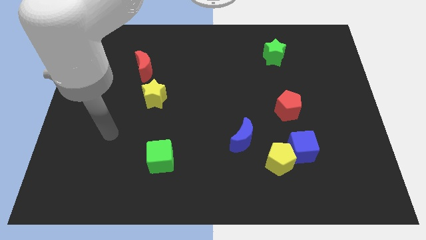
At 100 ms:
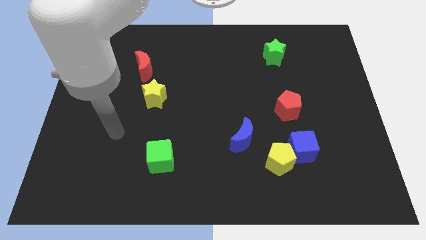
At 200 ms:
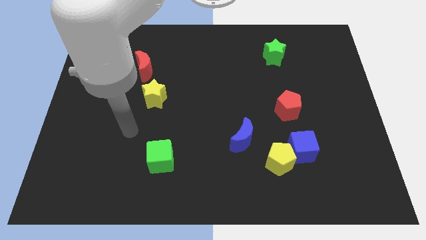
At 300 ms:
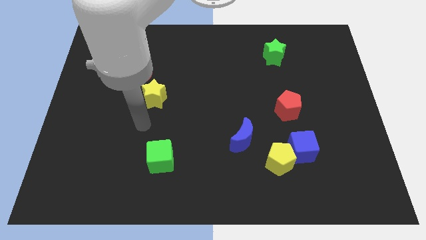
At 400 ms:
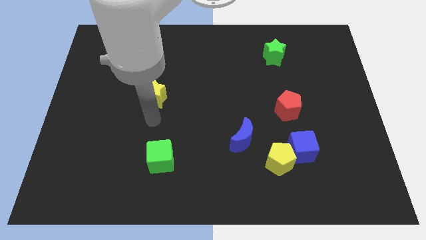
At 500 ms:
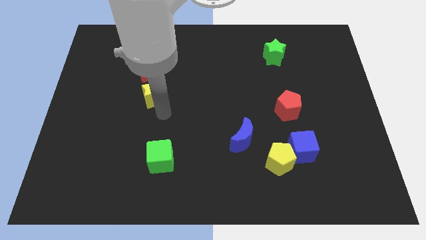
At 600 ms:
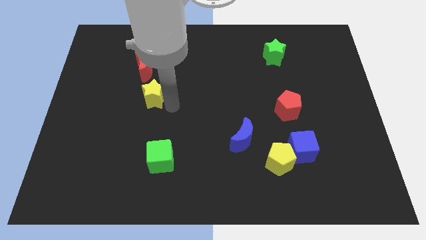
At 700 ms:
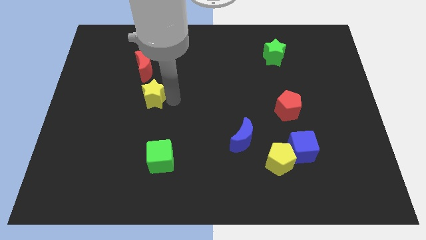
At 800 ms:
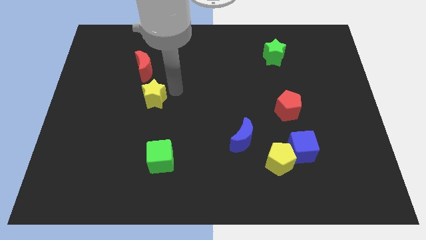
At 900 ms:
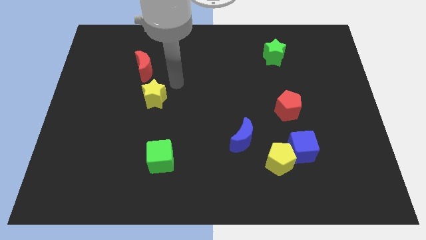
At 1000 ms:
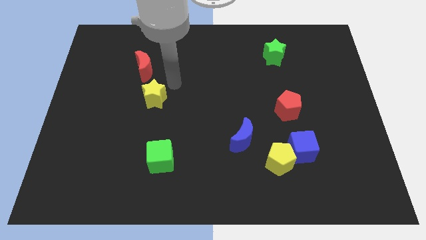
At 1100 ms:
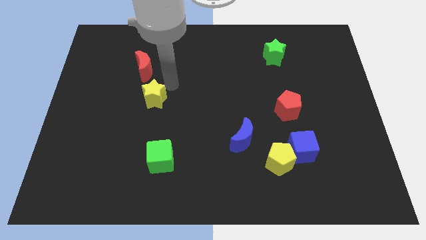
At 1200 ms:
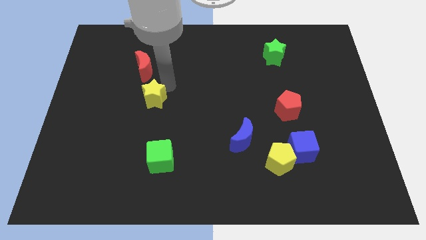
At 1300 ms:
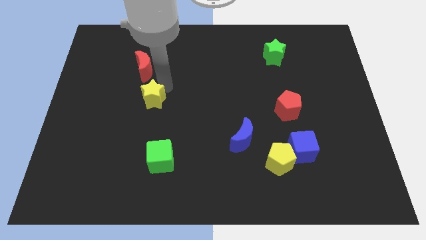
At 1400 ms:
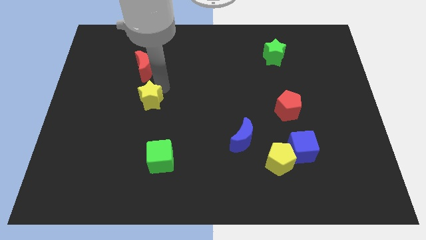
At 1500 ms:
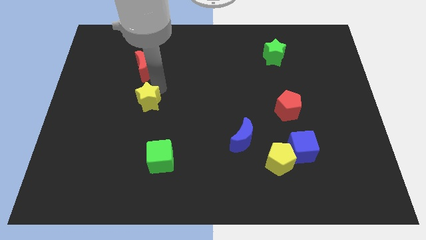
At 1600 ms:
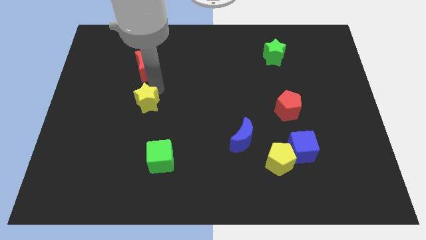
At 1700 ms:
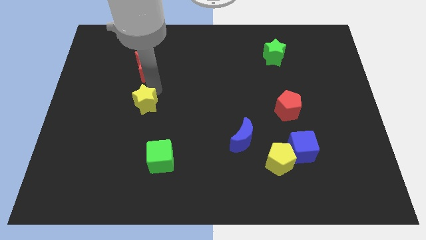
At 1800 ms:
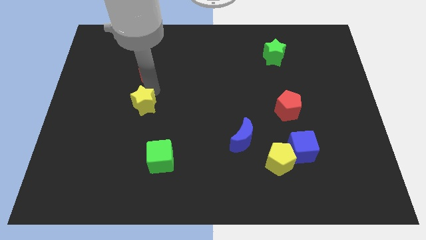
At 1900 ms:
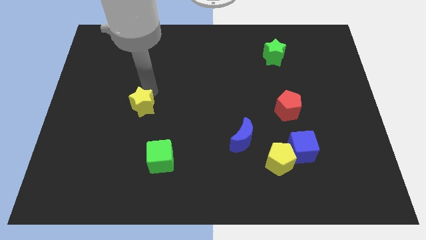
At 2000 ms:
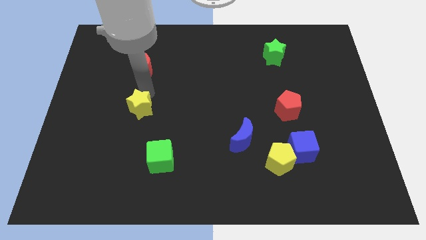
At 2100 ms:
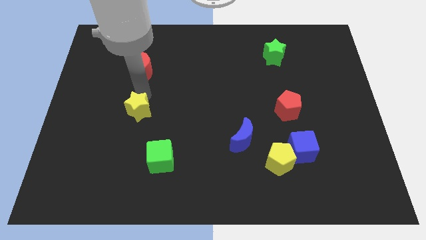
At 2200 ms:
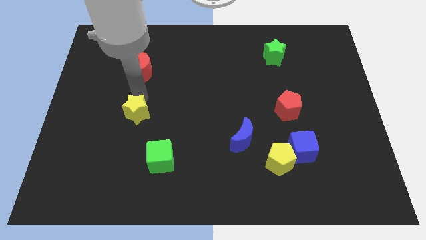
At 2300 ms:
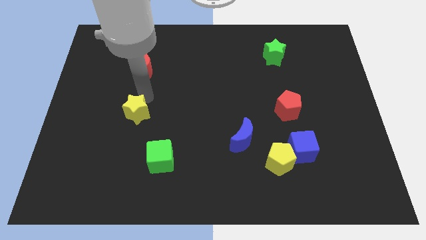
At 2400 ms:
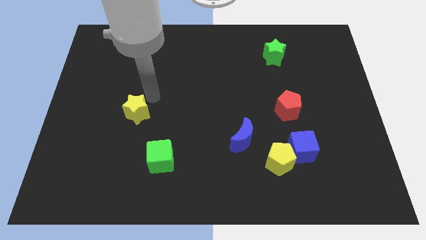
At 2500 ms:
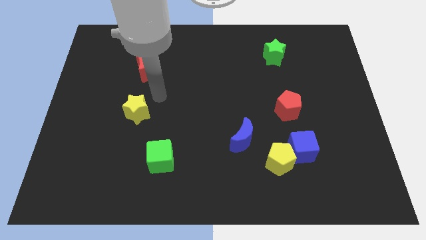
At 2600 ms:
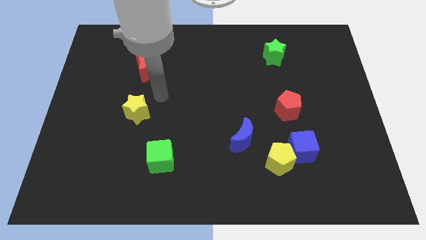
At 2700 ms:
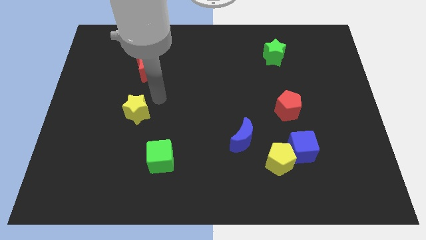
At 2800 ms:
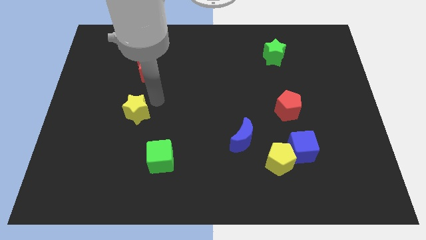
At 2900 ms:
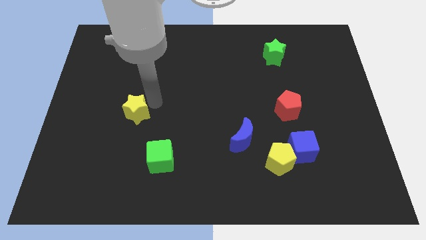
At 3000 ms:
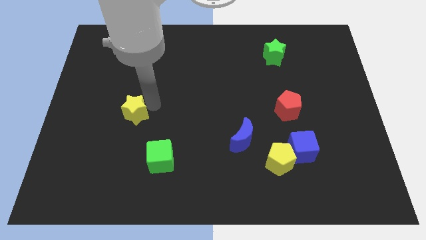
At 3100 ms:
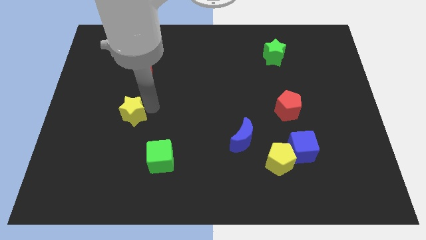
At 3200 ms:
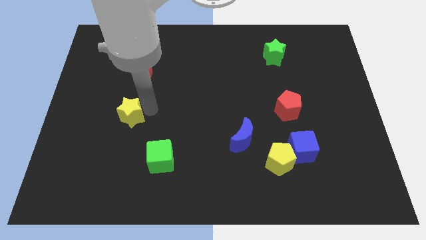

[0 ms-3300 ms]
move the yellow star a bit downwards and then left

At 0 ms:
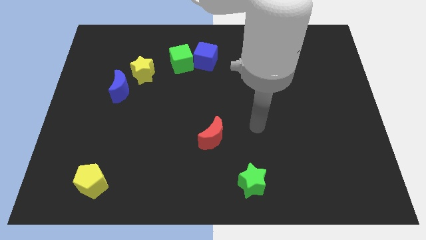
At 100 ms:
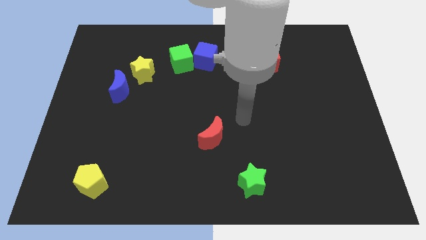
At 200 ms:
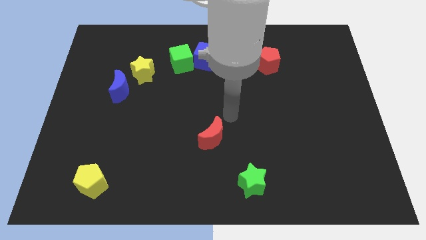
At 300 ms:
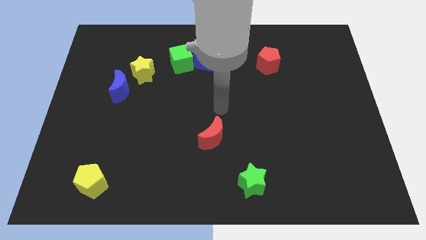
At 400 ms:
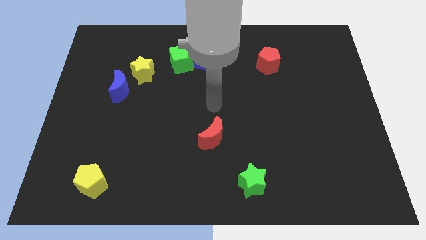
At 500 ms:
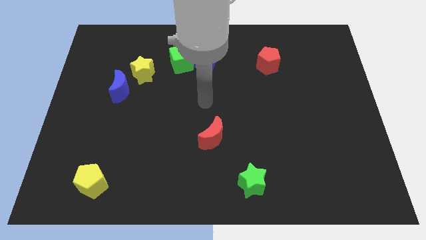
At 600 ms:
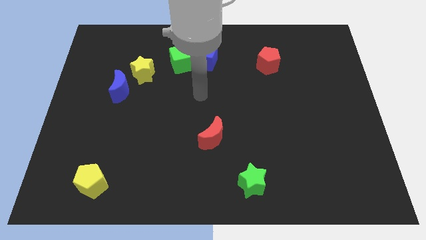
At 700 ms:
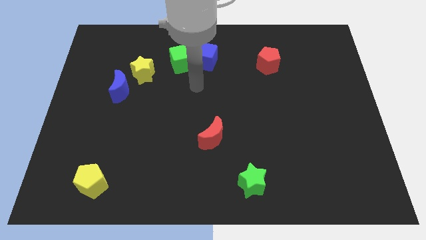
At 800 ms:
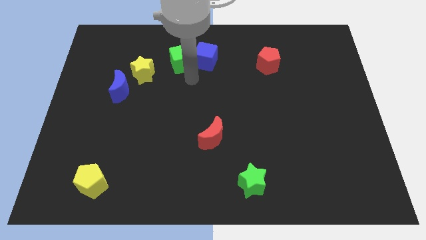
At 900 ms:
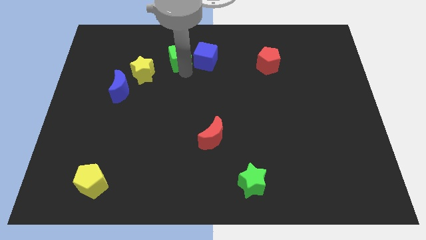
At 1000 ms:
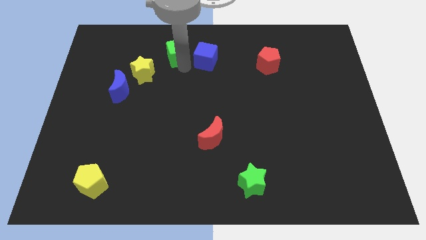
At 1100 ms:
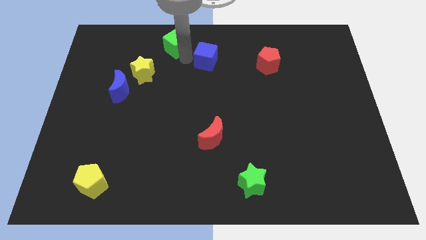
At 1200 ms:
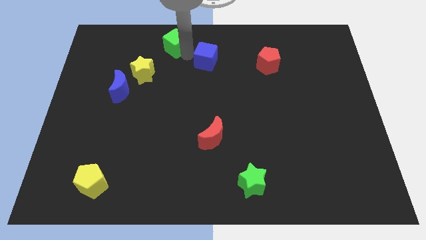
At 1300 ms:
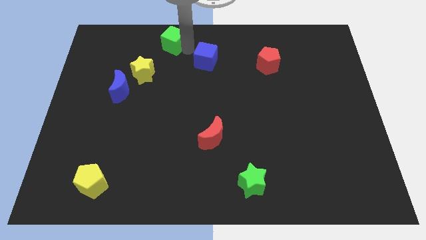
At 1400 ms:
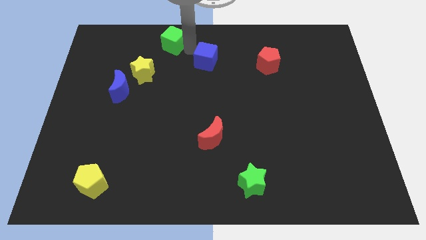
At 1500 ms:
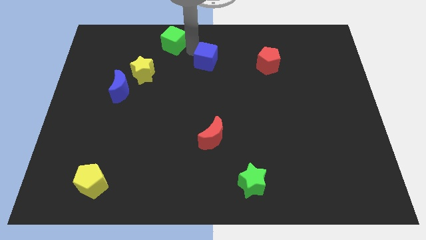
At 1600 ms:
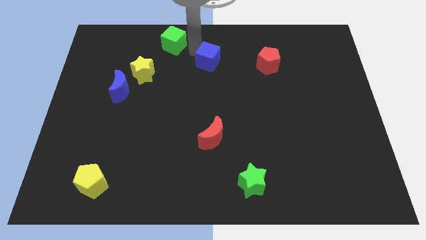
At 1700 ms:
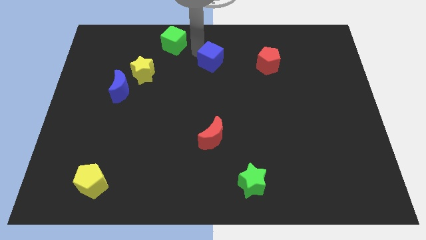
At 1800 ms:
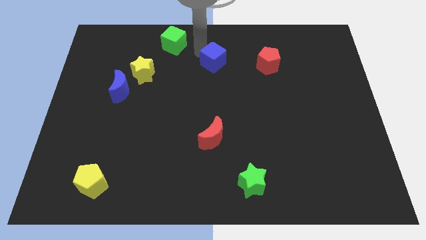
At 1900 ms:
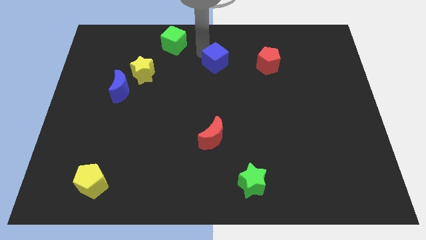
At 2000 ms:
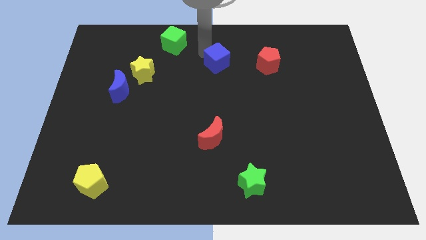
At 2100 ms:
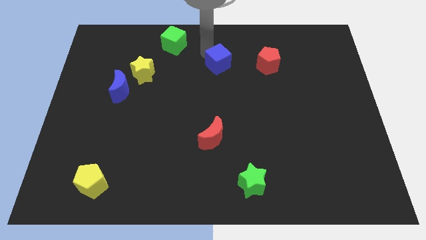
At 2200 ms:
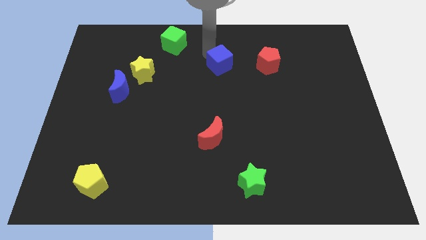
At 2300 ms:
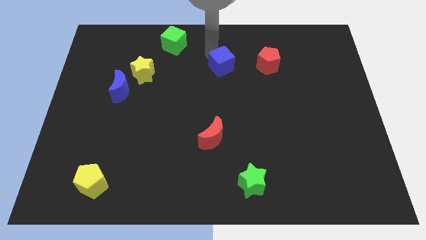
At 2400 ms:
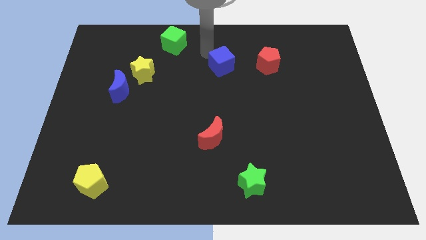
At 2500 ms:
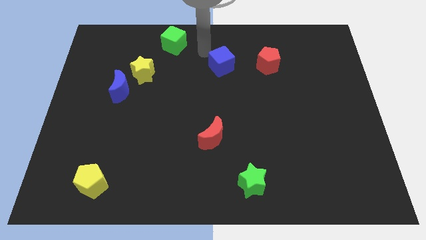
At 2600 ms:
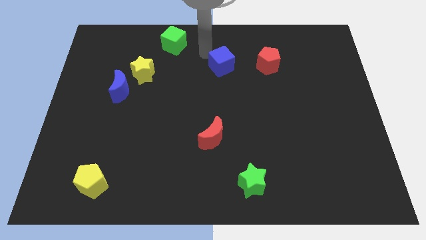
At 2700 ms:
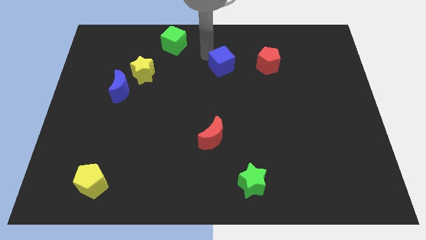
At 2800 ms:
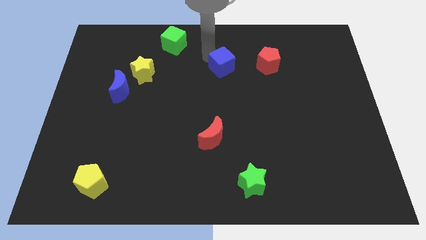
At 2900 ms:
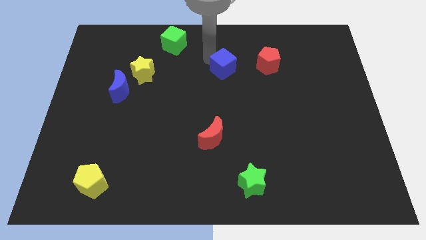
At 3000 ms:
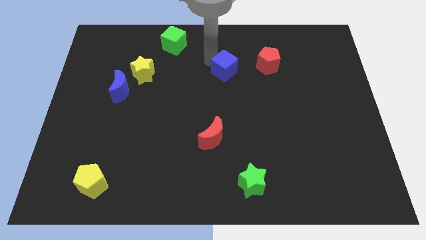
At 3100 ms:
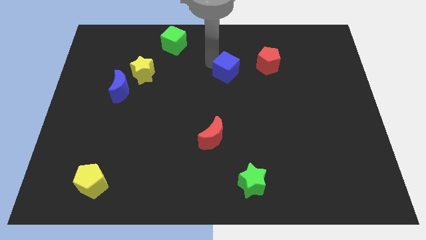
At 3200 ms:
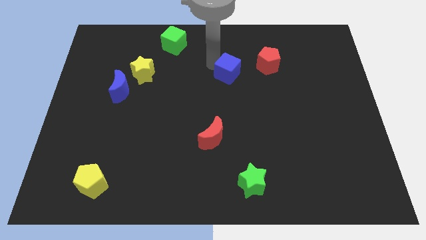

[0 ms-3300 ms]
move the blue cube down and then to the right a little

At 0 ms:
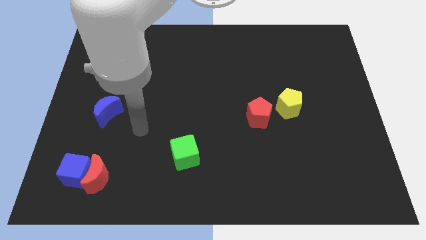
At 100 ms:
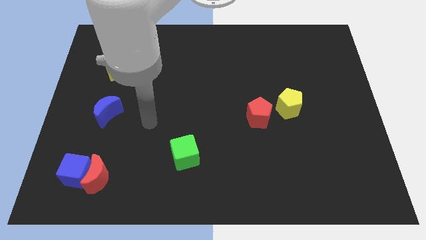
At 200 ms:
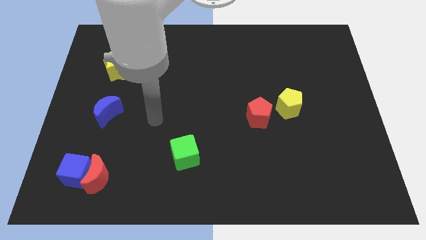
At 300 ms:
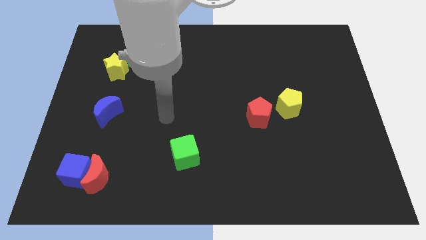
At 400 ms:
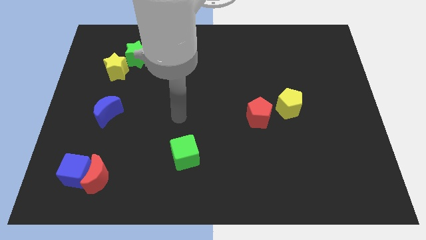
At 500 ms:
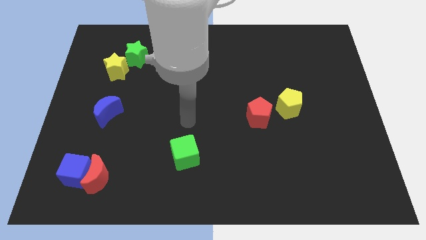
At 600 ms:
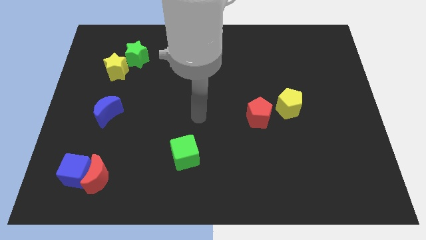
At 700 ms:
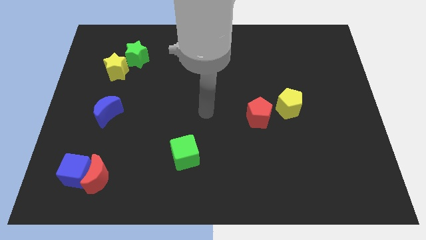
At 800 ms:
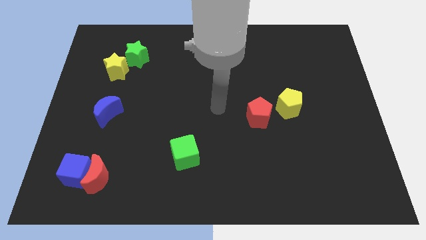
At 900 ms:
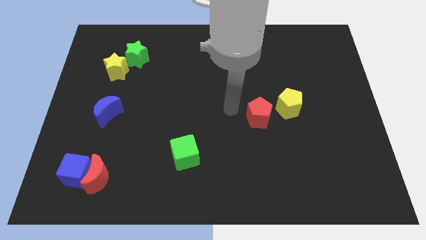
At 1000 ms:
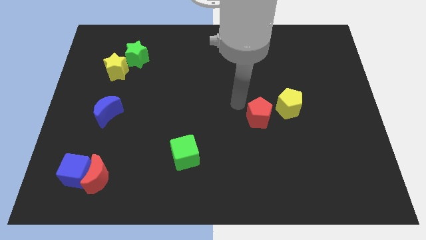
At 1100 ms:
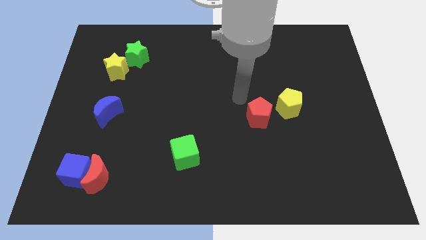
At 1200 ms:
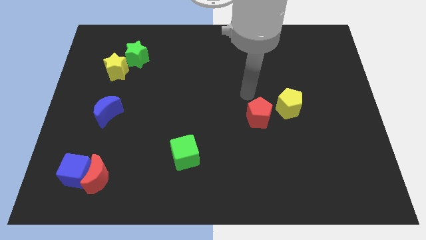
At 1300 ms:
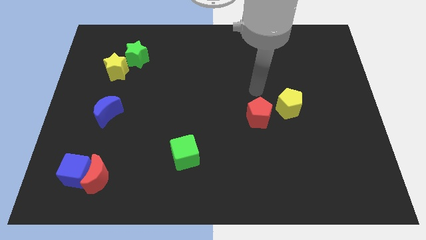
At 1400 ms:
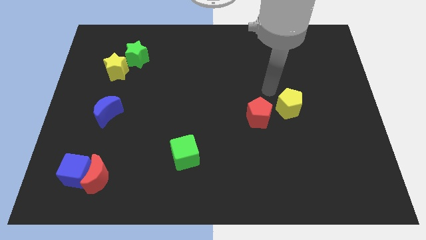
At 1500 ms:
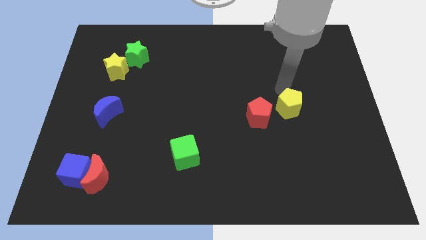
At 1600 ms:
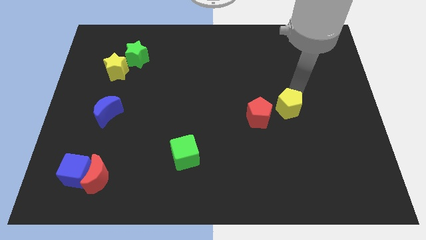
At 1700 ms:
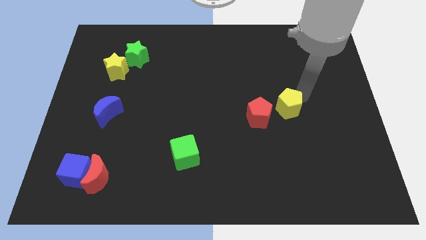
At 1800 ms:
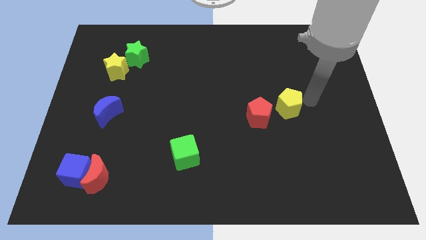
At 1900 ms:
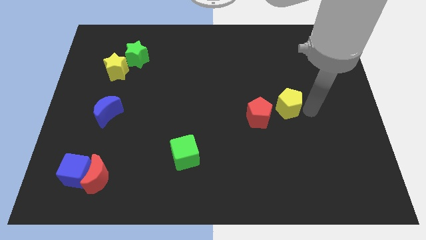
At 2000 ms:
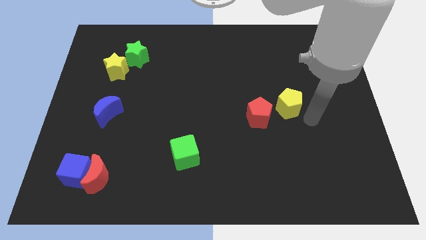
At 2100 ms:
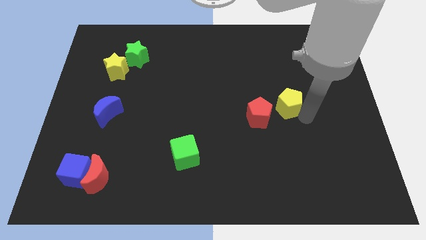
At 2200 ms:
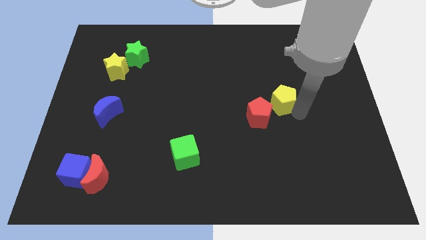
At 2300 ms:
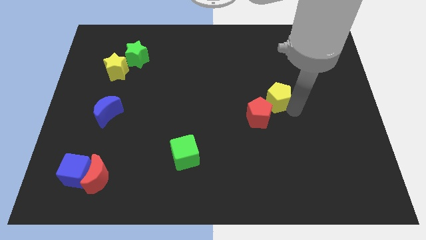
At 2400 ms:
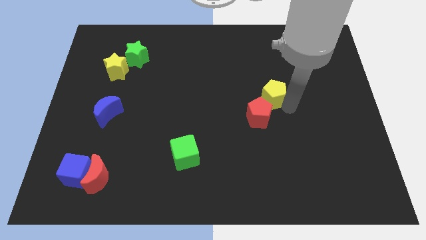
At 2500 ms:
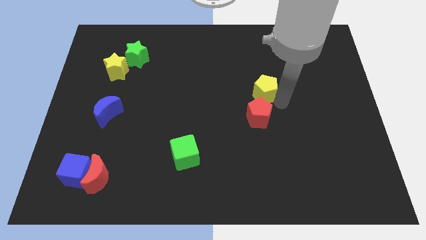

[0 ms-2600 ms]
push the yellow pentagon upwards and to the left diagonally a little
